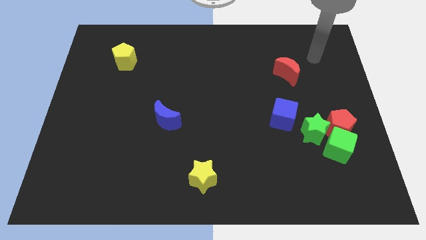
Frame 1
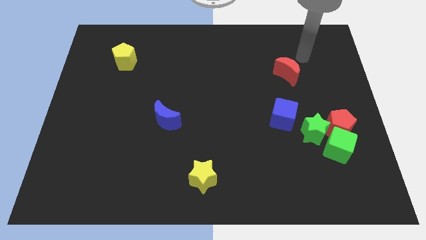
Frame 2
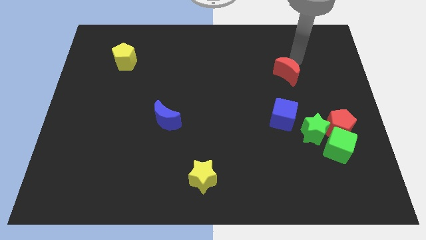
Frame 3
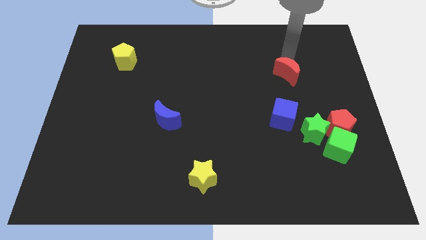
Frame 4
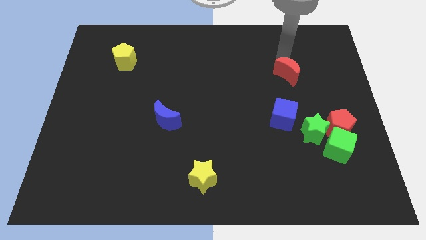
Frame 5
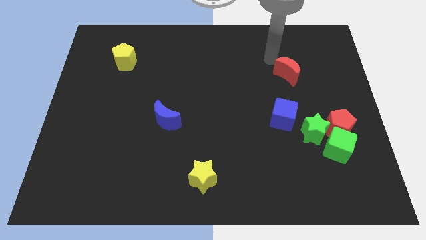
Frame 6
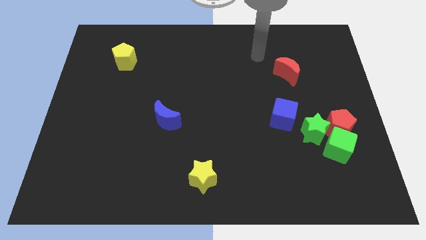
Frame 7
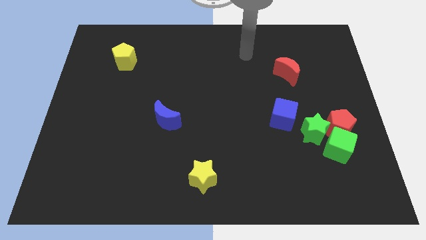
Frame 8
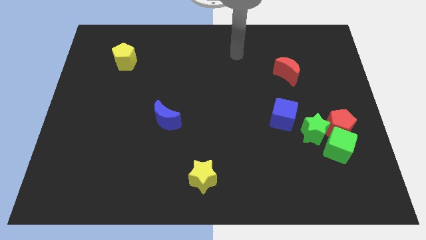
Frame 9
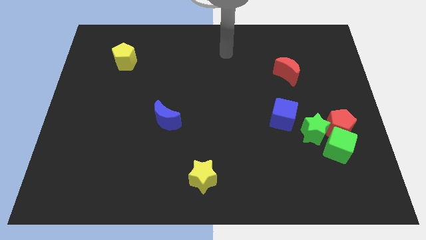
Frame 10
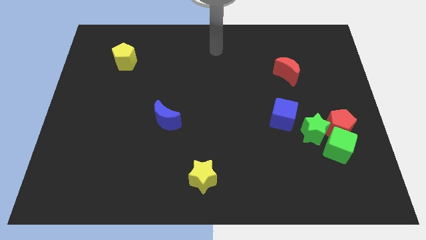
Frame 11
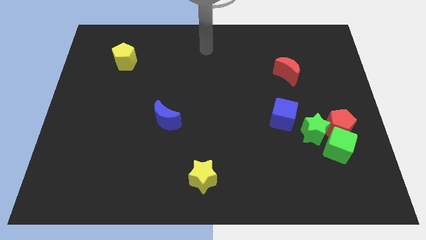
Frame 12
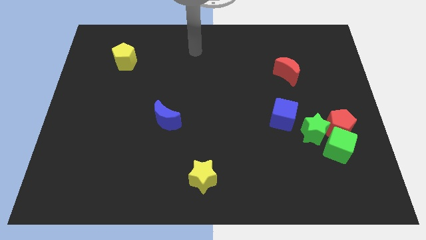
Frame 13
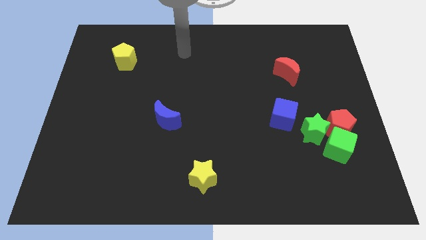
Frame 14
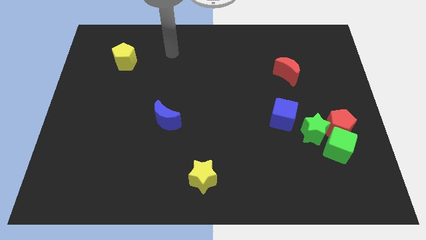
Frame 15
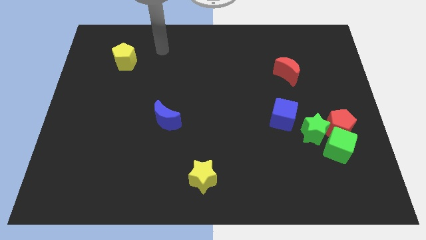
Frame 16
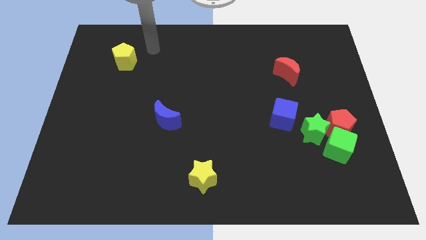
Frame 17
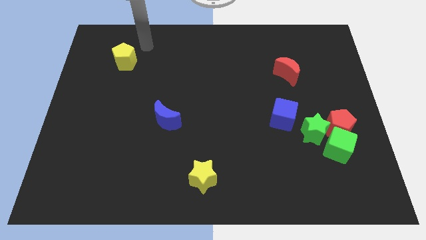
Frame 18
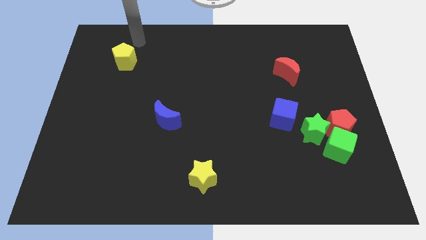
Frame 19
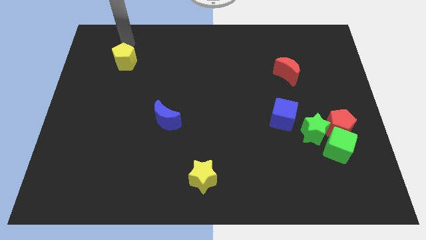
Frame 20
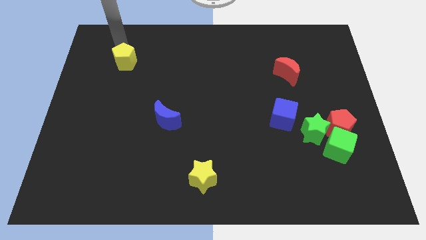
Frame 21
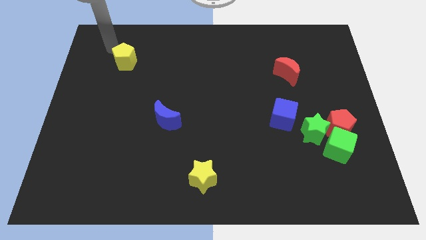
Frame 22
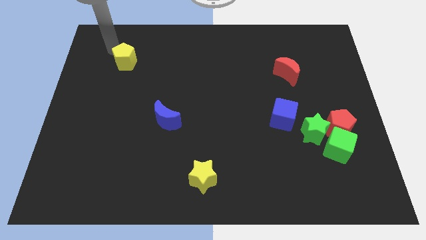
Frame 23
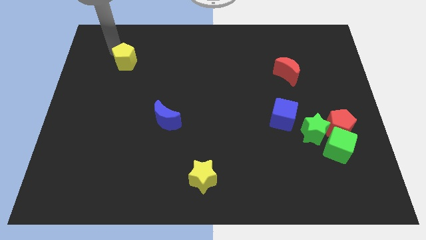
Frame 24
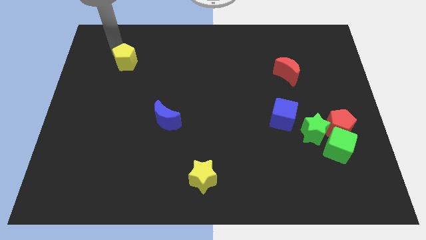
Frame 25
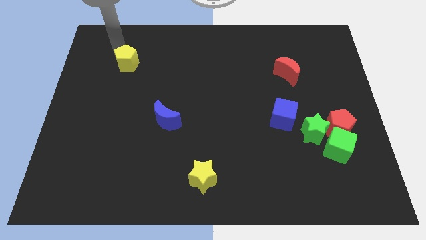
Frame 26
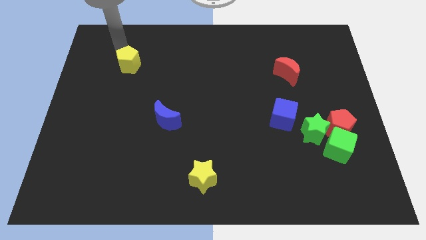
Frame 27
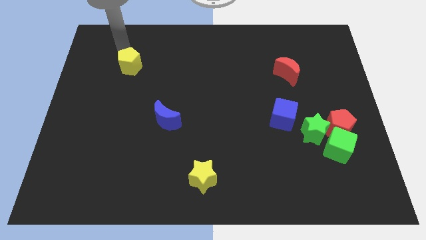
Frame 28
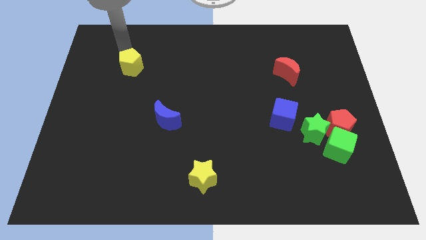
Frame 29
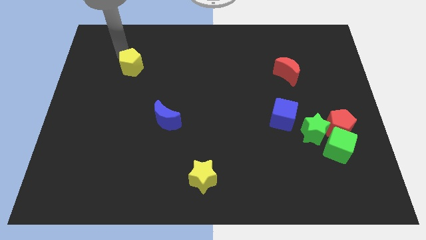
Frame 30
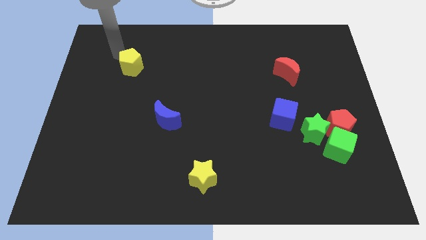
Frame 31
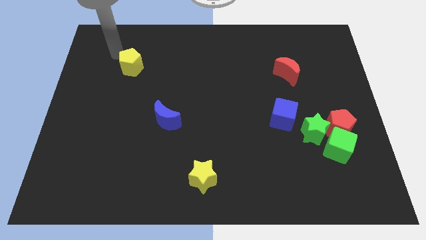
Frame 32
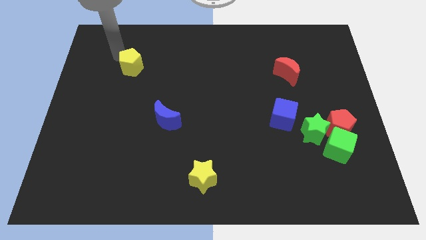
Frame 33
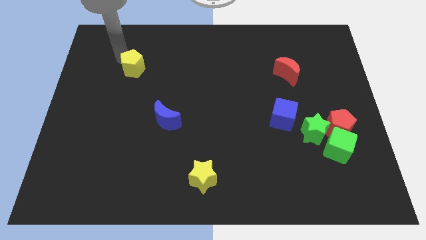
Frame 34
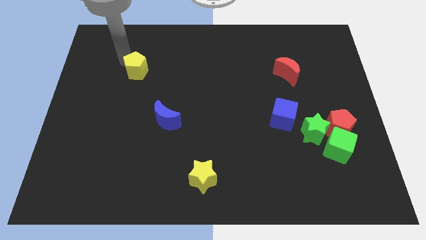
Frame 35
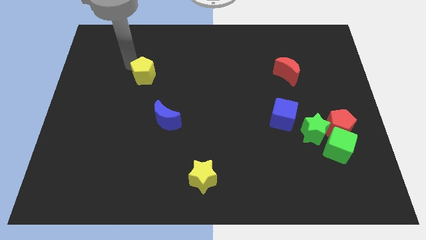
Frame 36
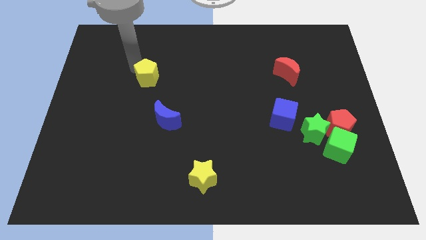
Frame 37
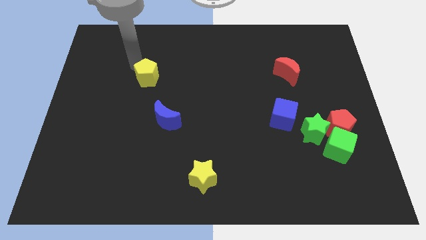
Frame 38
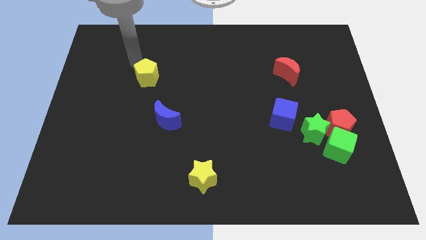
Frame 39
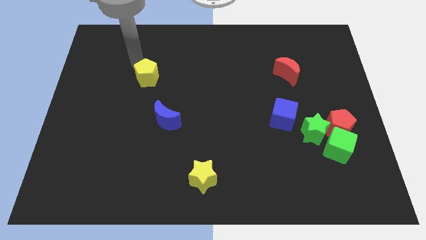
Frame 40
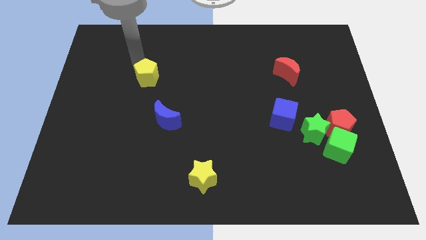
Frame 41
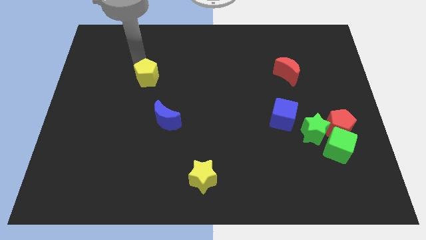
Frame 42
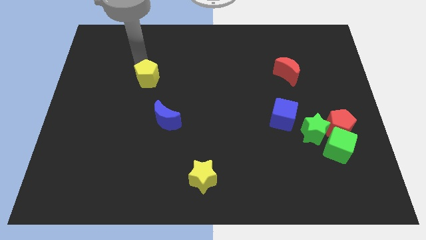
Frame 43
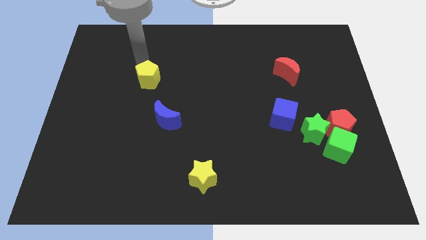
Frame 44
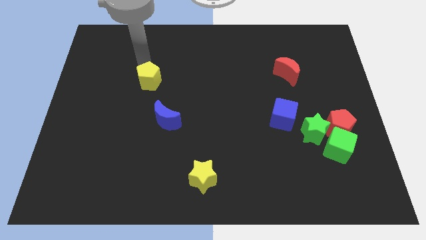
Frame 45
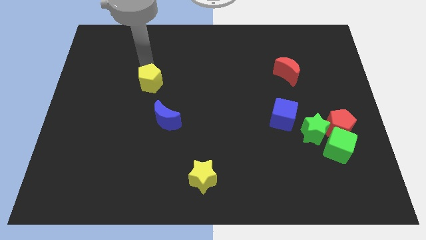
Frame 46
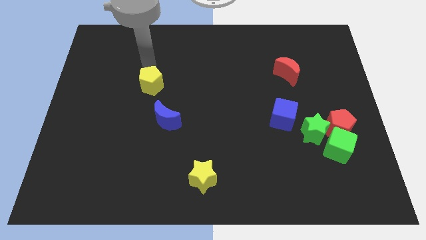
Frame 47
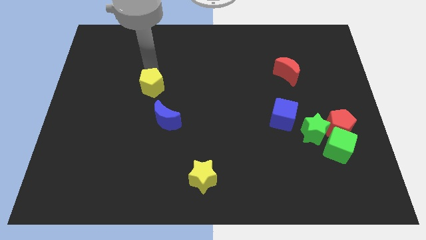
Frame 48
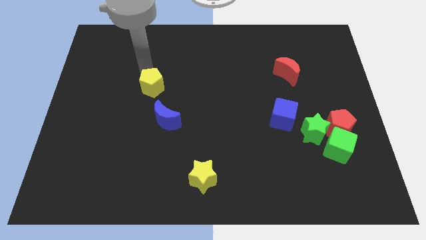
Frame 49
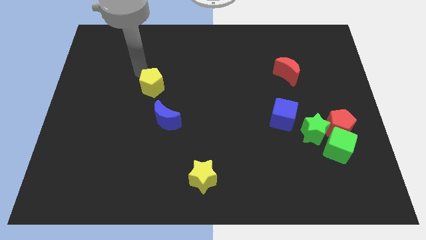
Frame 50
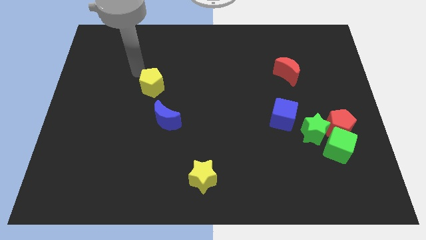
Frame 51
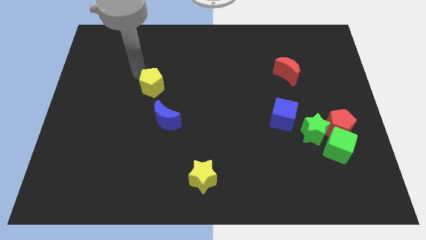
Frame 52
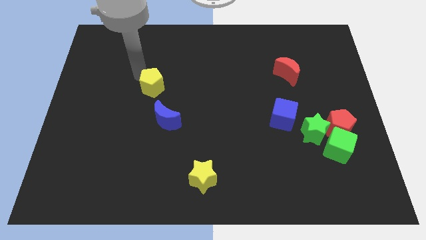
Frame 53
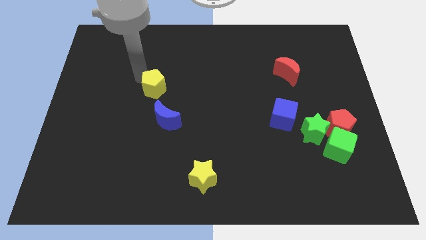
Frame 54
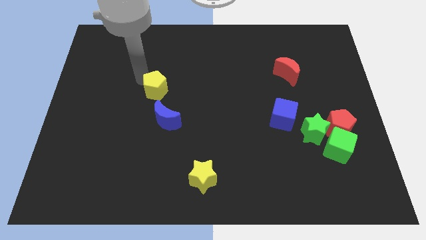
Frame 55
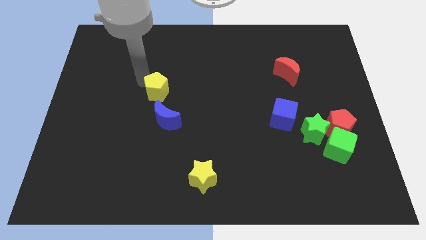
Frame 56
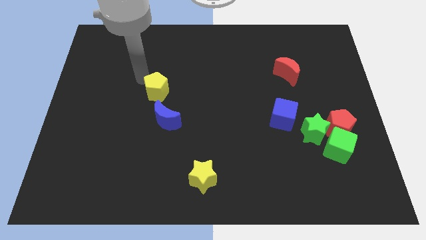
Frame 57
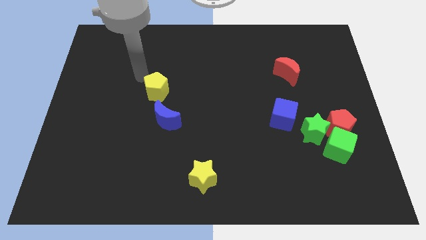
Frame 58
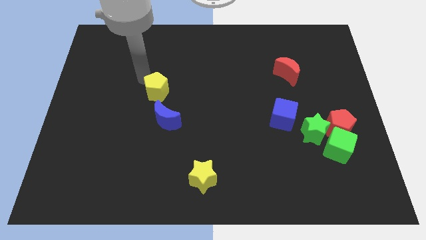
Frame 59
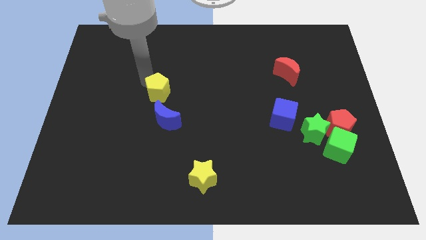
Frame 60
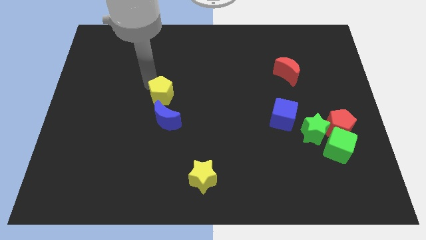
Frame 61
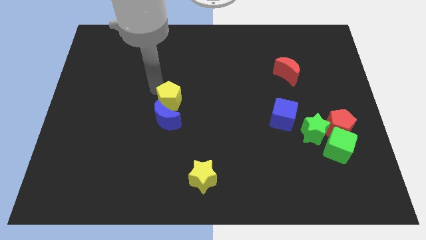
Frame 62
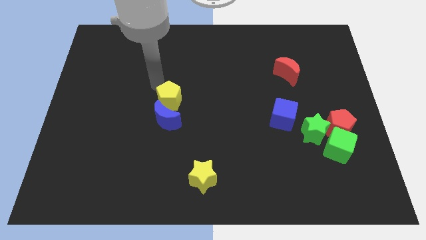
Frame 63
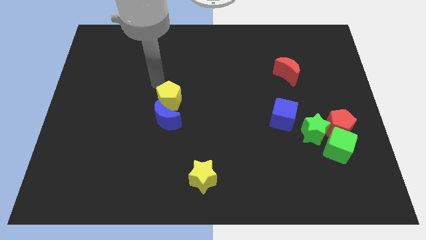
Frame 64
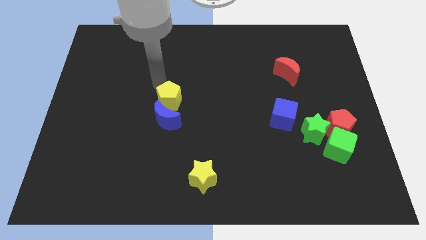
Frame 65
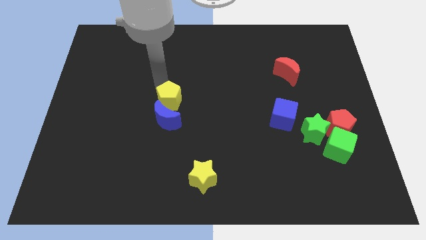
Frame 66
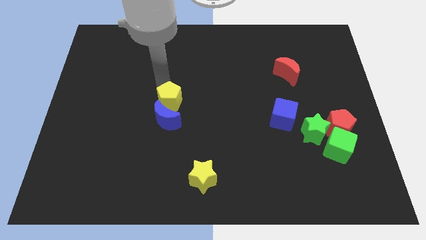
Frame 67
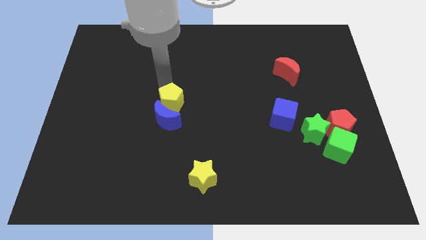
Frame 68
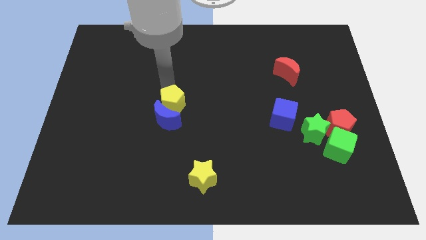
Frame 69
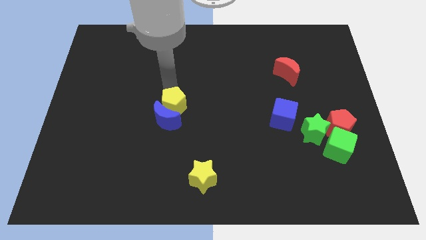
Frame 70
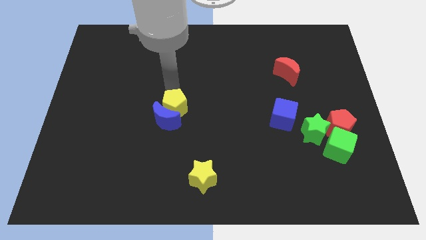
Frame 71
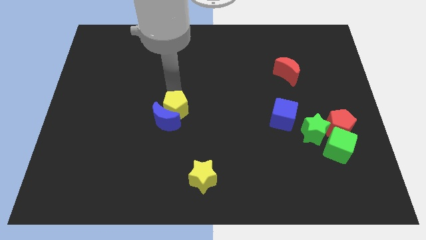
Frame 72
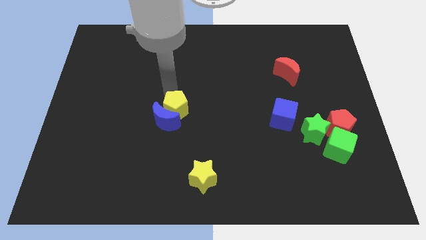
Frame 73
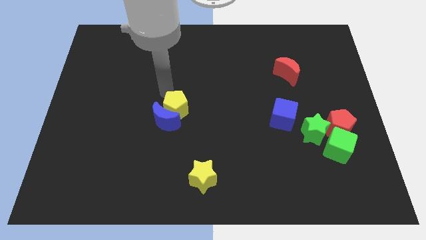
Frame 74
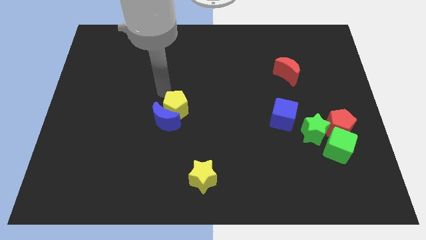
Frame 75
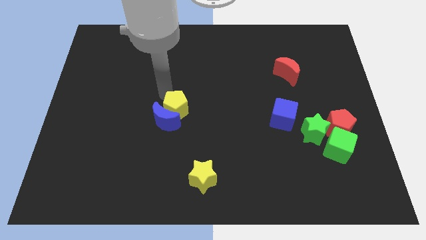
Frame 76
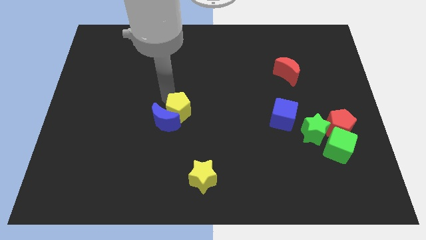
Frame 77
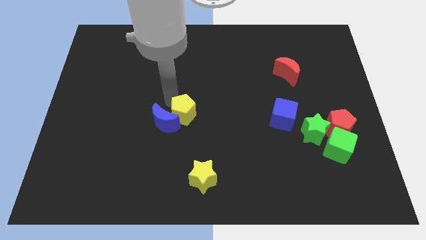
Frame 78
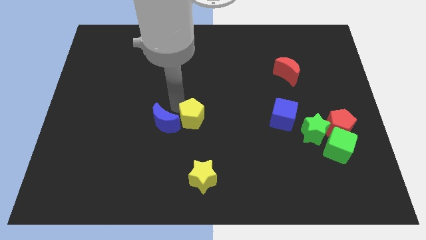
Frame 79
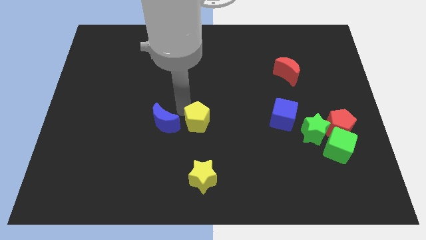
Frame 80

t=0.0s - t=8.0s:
push the yellow pentagon to the top side of the yellow star
